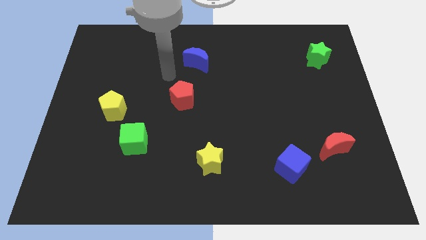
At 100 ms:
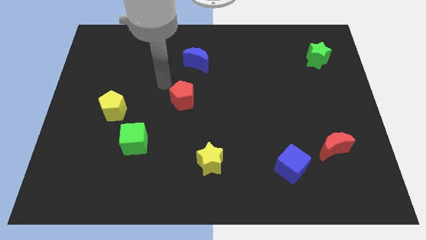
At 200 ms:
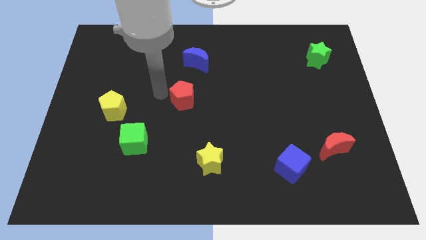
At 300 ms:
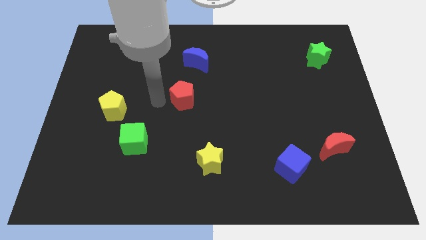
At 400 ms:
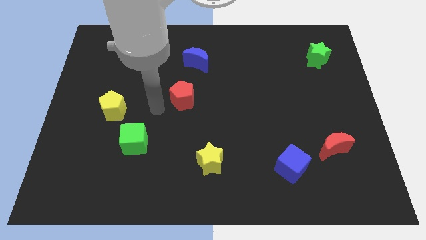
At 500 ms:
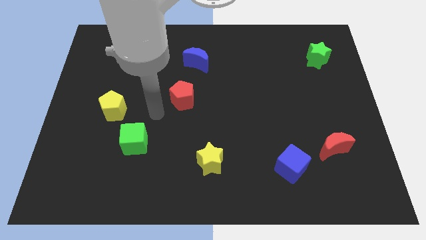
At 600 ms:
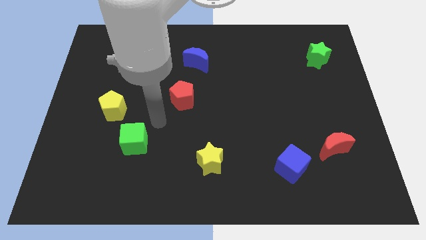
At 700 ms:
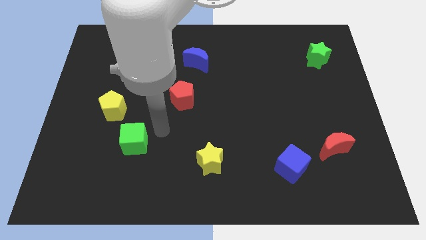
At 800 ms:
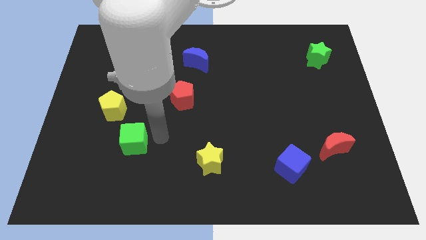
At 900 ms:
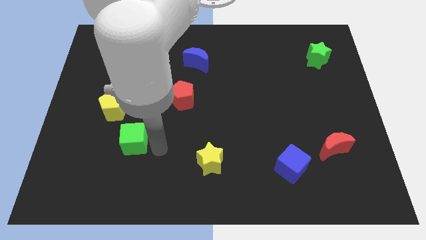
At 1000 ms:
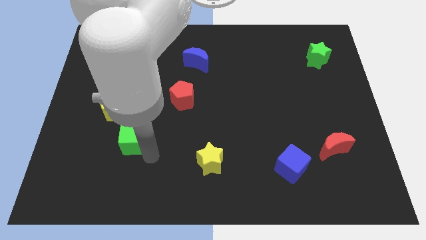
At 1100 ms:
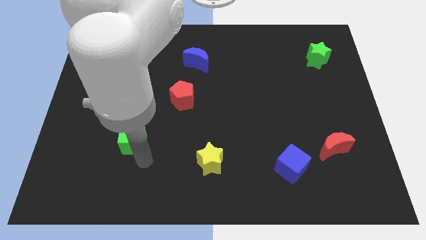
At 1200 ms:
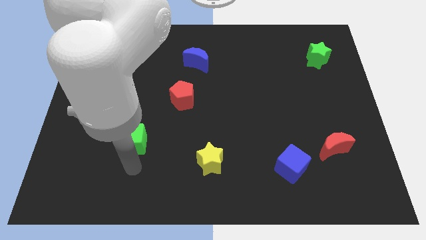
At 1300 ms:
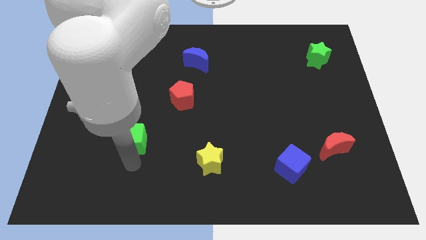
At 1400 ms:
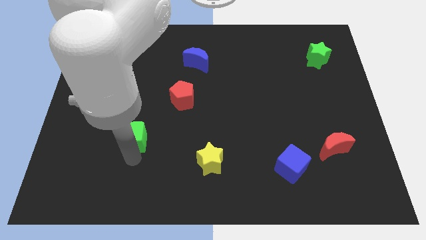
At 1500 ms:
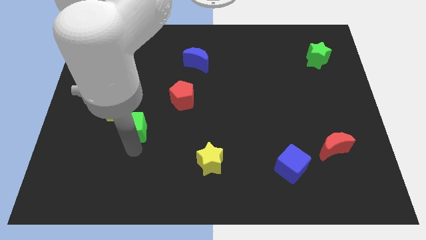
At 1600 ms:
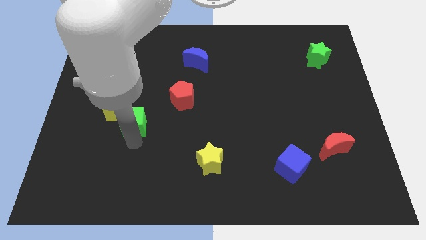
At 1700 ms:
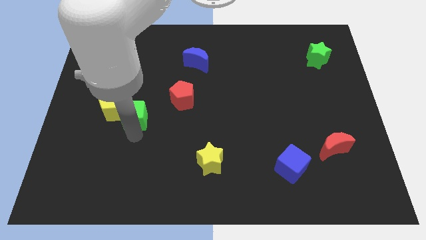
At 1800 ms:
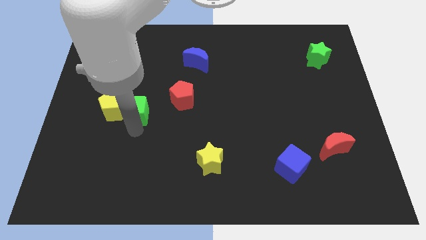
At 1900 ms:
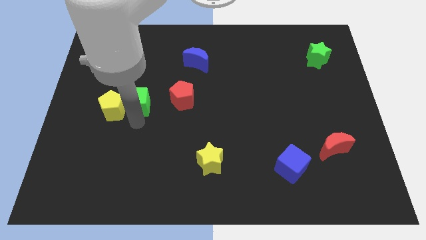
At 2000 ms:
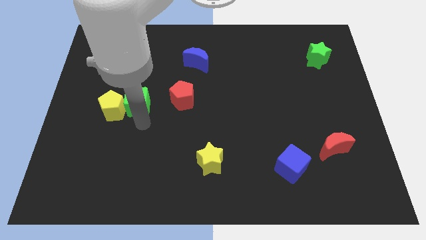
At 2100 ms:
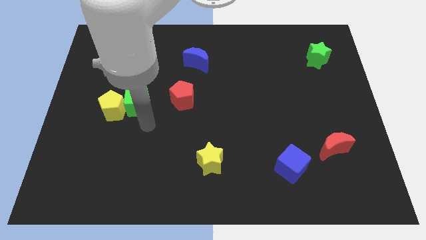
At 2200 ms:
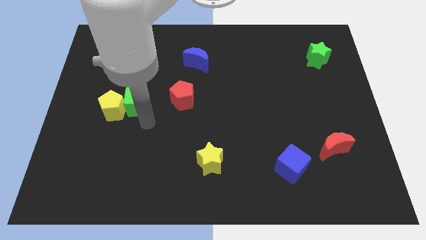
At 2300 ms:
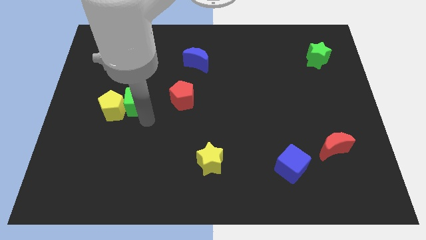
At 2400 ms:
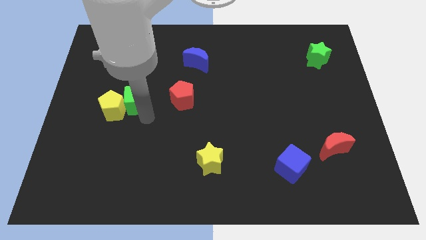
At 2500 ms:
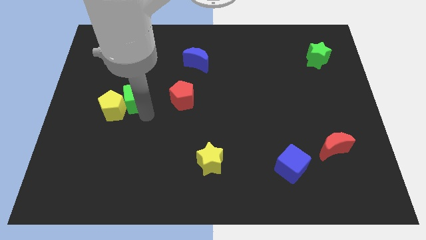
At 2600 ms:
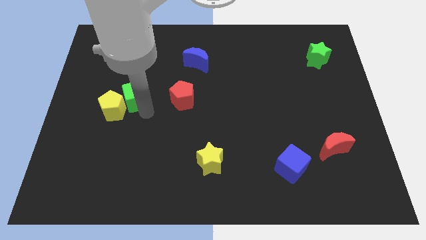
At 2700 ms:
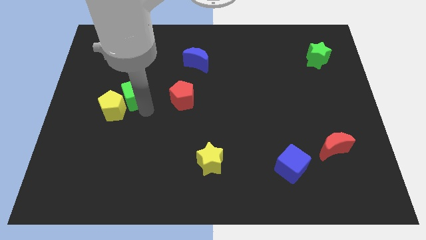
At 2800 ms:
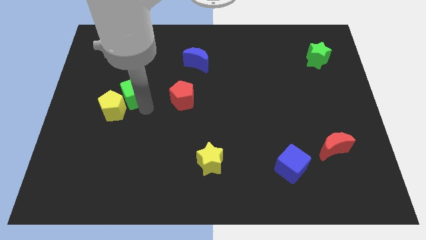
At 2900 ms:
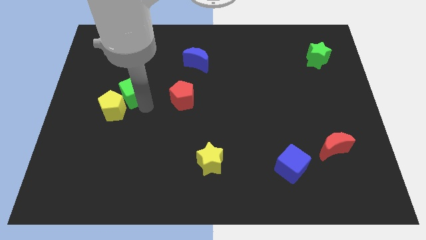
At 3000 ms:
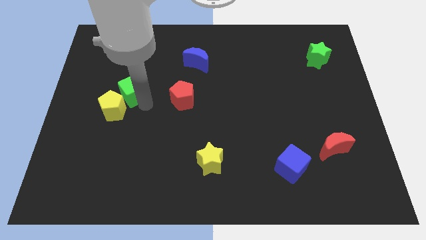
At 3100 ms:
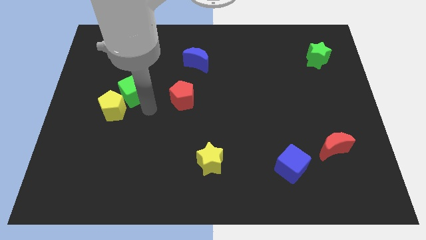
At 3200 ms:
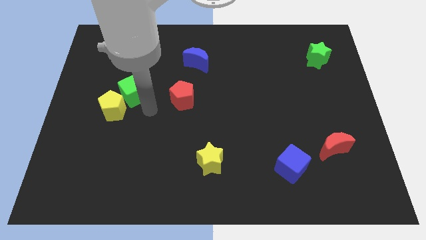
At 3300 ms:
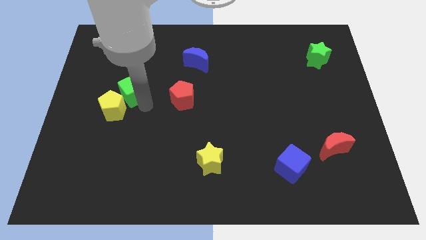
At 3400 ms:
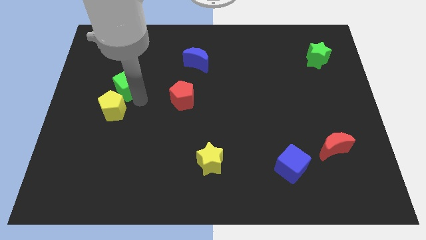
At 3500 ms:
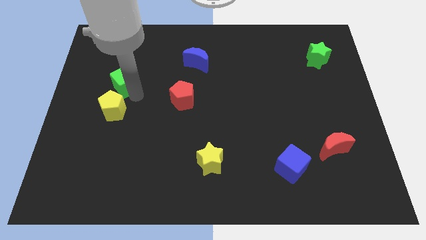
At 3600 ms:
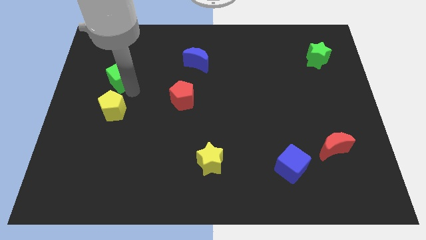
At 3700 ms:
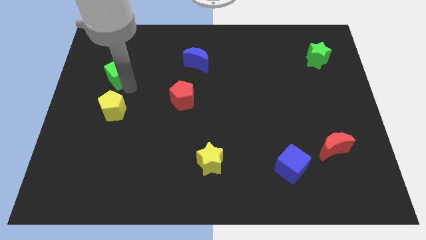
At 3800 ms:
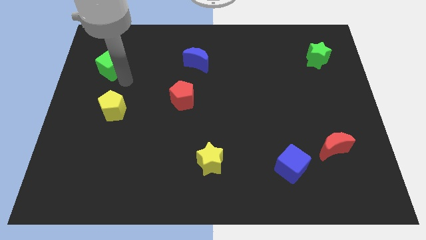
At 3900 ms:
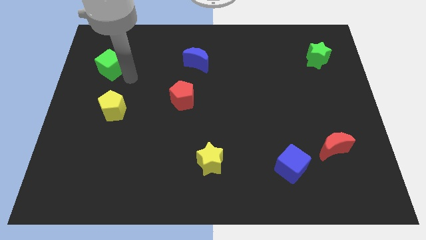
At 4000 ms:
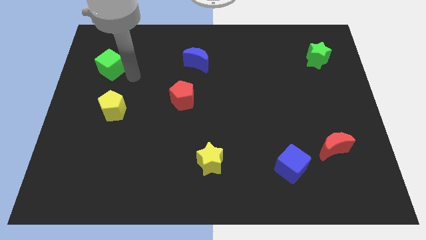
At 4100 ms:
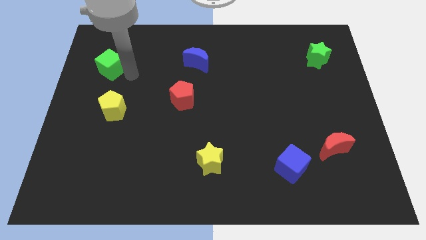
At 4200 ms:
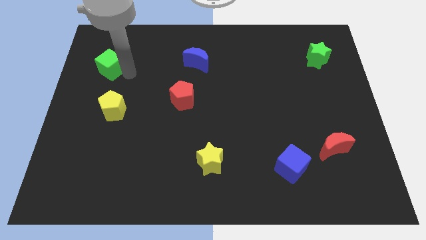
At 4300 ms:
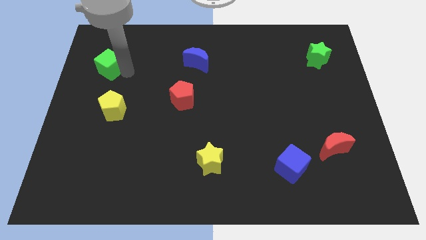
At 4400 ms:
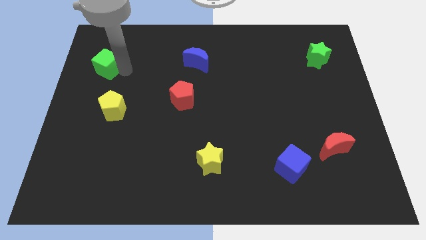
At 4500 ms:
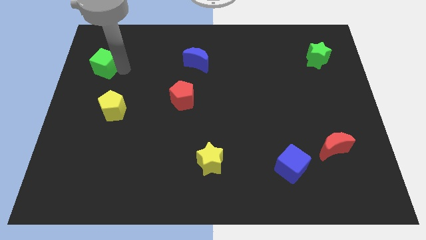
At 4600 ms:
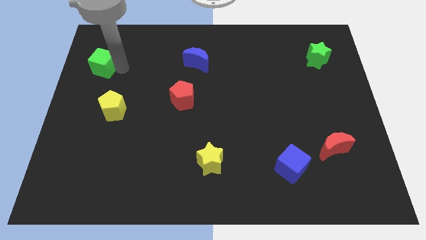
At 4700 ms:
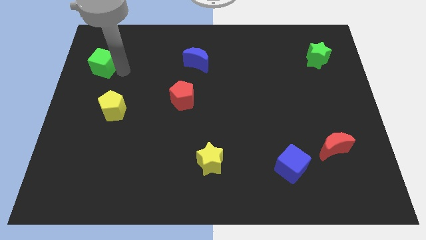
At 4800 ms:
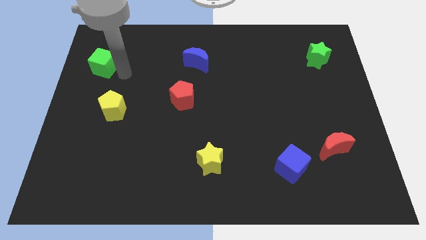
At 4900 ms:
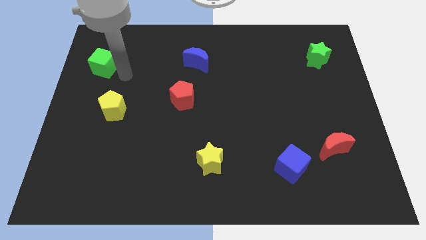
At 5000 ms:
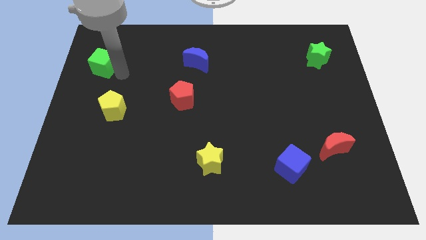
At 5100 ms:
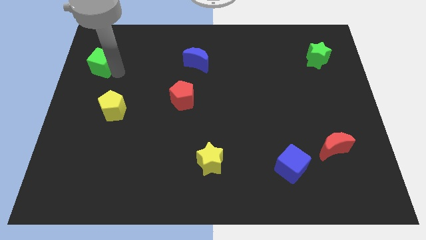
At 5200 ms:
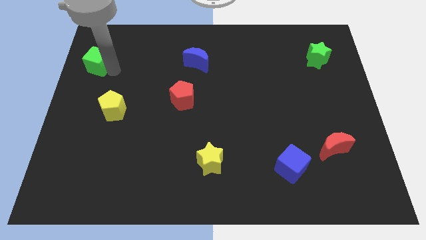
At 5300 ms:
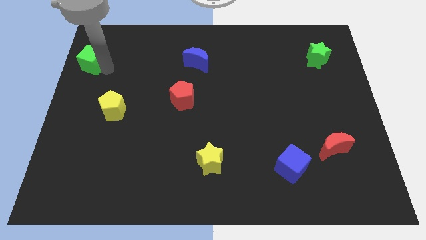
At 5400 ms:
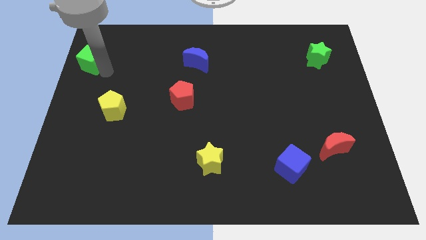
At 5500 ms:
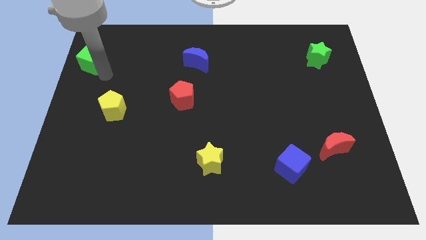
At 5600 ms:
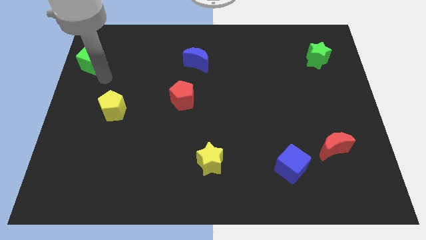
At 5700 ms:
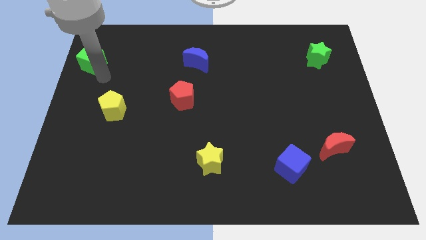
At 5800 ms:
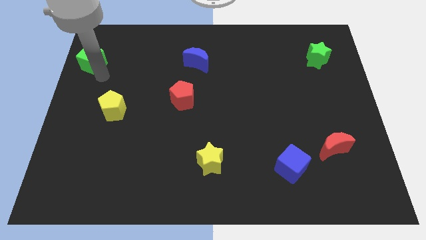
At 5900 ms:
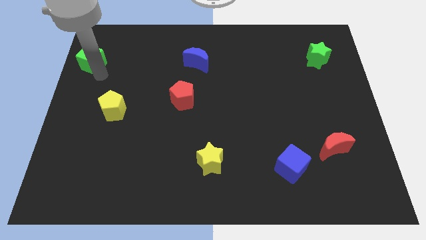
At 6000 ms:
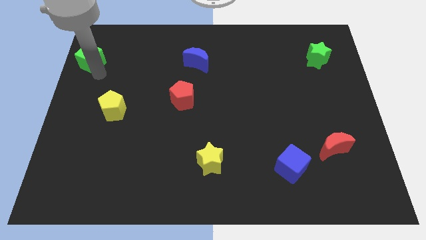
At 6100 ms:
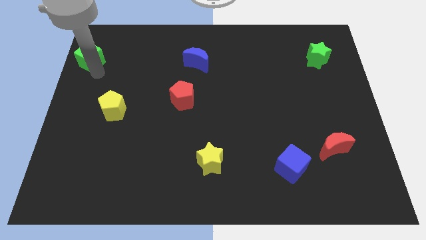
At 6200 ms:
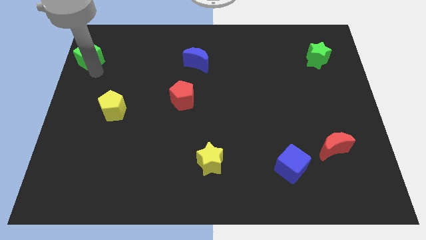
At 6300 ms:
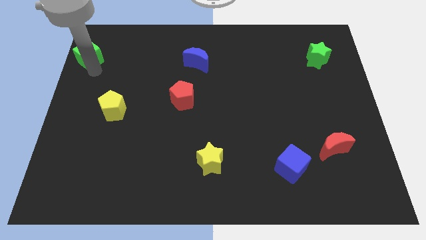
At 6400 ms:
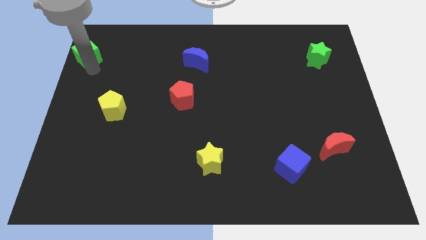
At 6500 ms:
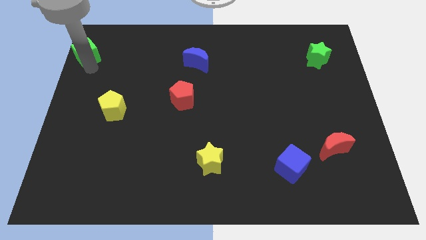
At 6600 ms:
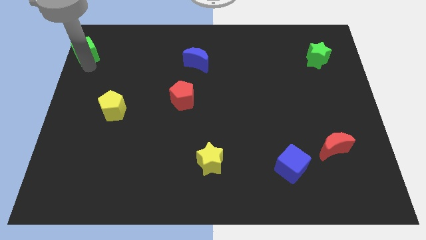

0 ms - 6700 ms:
push the green cube to the top left

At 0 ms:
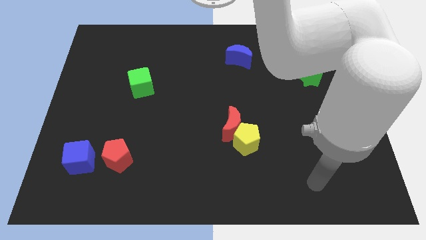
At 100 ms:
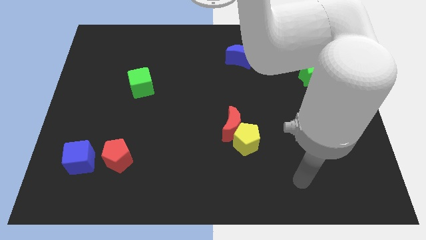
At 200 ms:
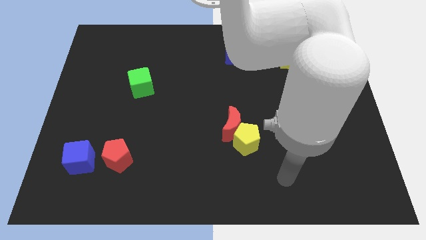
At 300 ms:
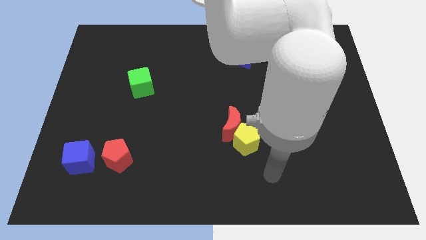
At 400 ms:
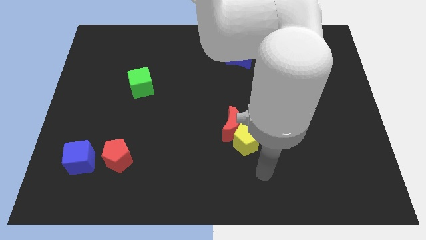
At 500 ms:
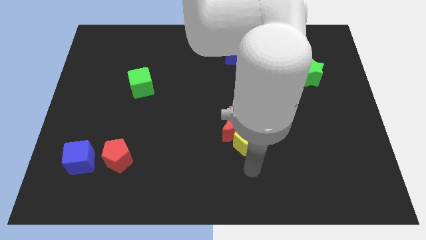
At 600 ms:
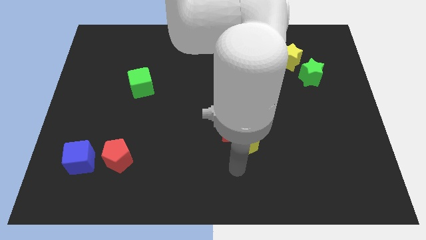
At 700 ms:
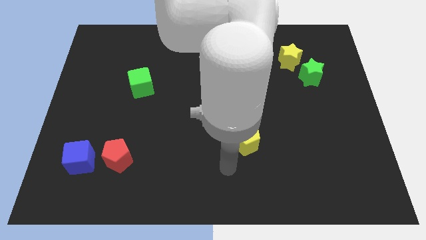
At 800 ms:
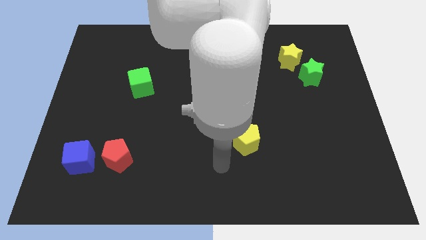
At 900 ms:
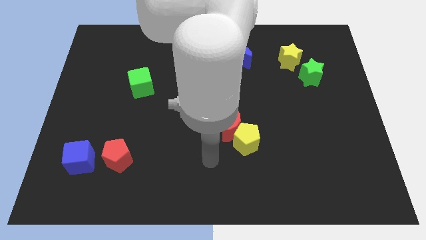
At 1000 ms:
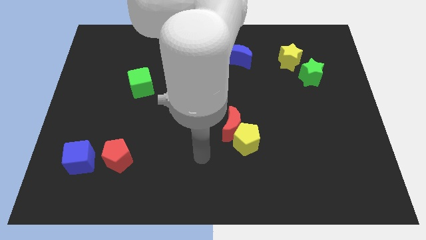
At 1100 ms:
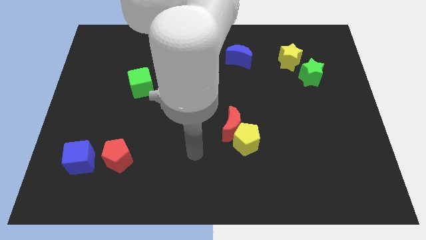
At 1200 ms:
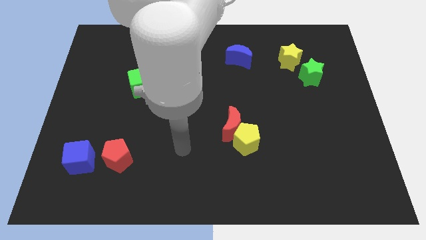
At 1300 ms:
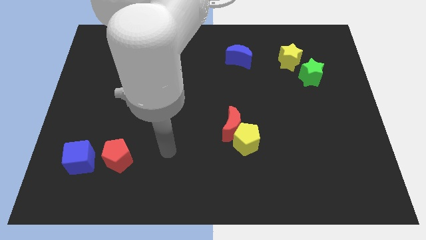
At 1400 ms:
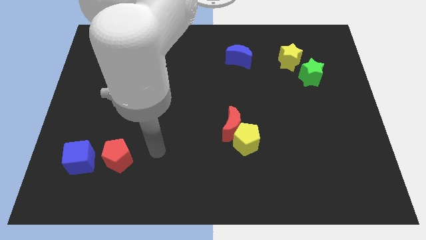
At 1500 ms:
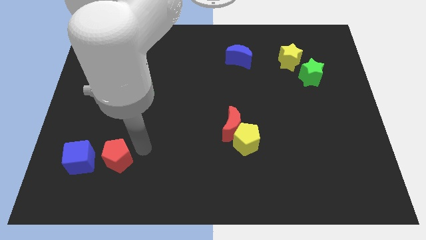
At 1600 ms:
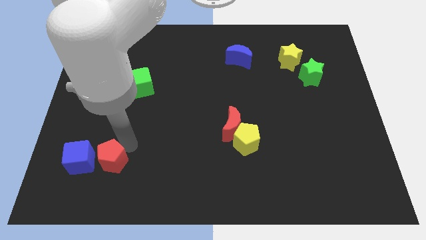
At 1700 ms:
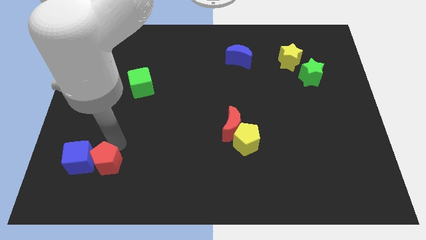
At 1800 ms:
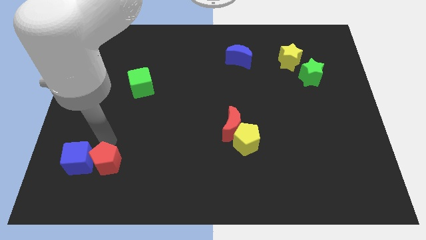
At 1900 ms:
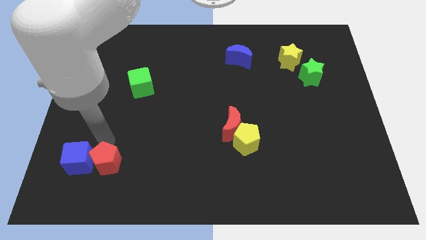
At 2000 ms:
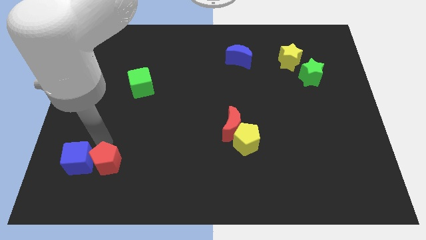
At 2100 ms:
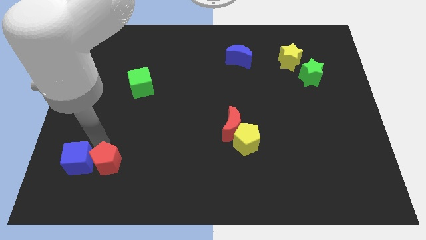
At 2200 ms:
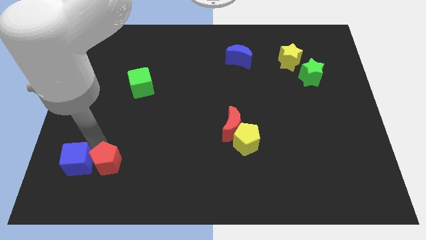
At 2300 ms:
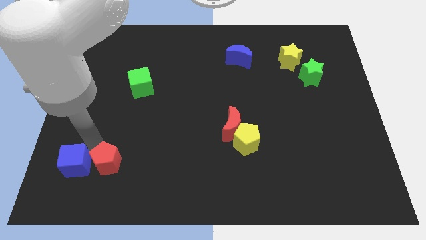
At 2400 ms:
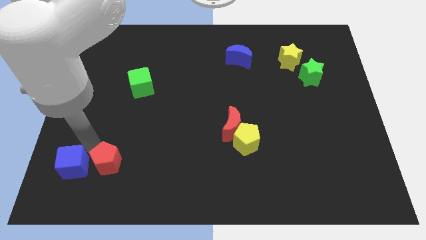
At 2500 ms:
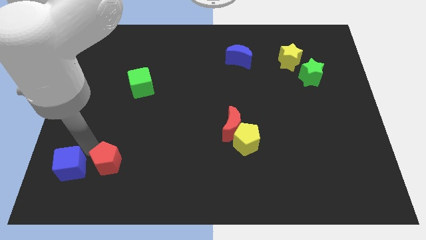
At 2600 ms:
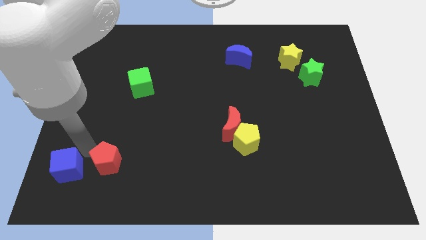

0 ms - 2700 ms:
slide the blue cube to the lower left corner
